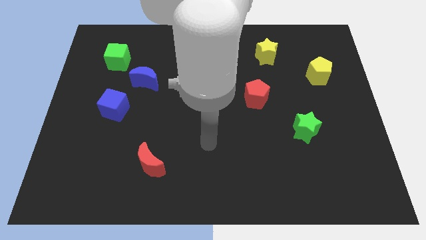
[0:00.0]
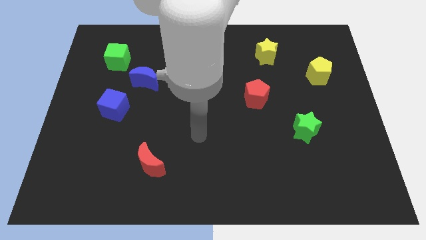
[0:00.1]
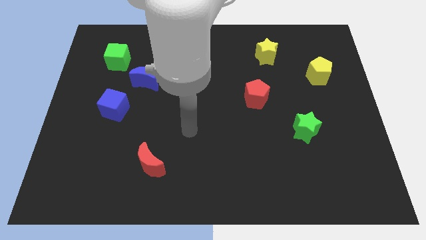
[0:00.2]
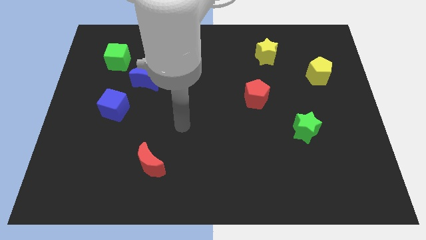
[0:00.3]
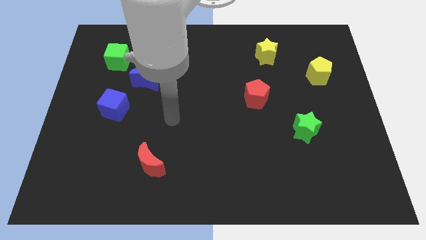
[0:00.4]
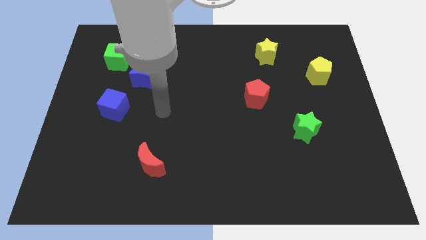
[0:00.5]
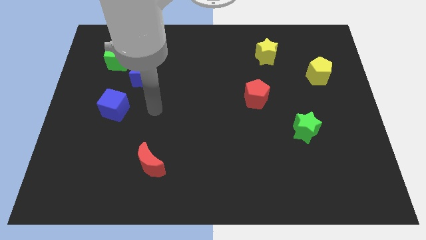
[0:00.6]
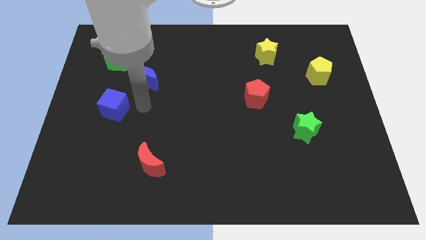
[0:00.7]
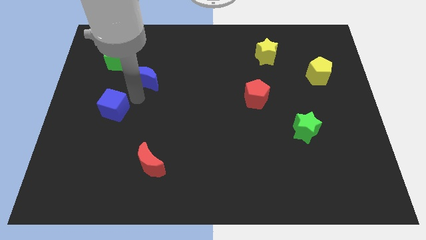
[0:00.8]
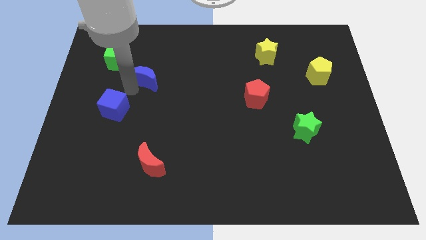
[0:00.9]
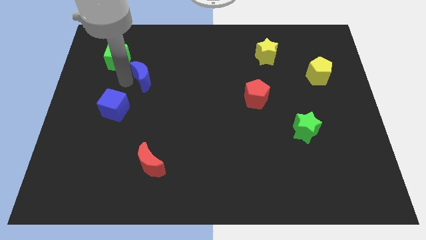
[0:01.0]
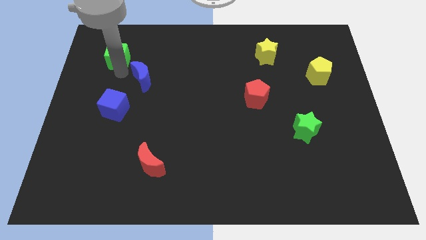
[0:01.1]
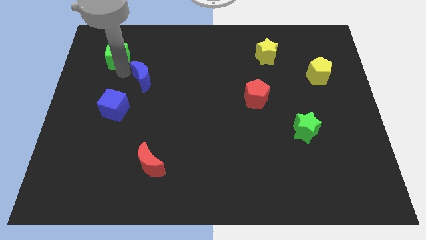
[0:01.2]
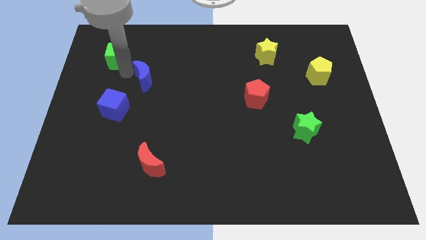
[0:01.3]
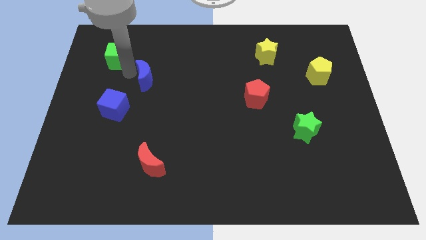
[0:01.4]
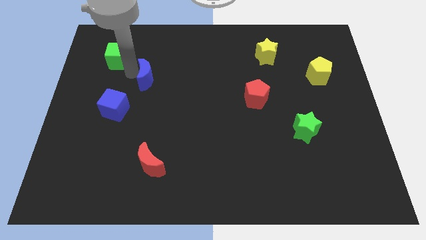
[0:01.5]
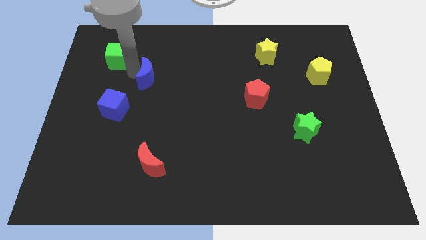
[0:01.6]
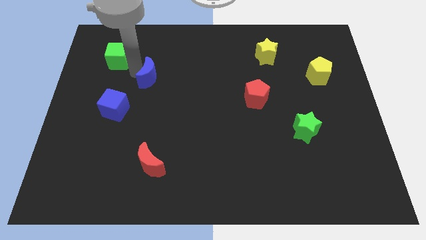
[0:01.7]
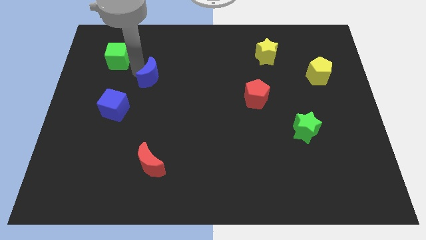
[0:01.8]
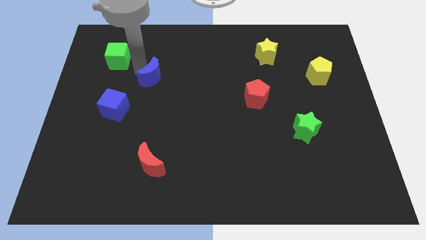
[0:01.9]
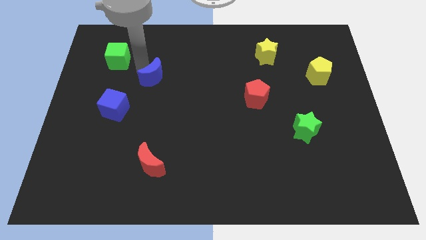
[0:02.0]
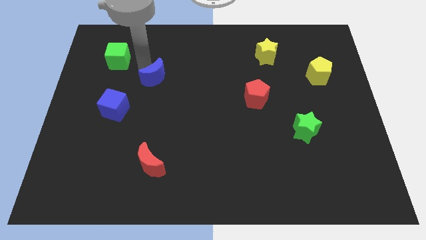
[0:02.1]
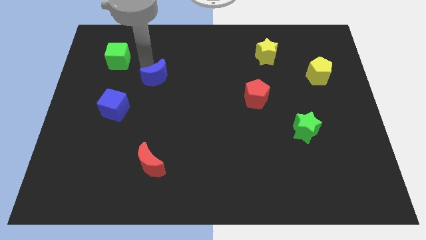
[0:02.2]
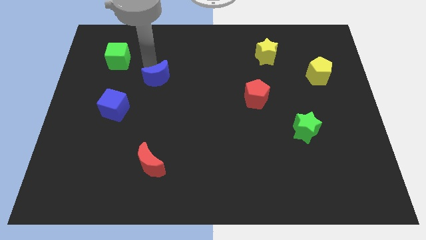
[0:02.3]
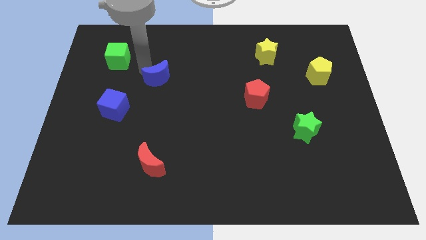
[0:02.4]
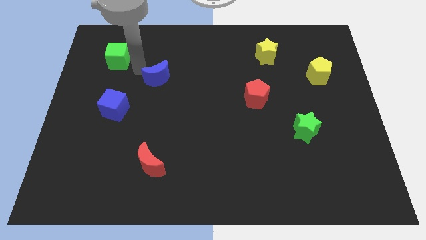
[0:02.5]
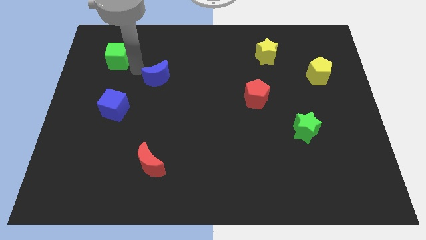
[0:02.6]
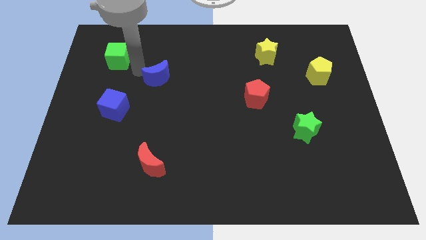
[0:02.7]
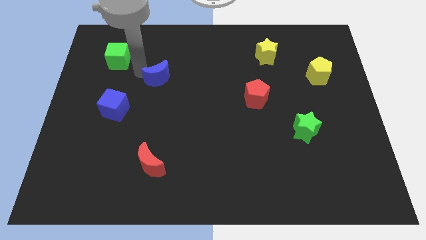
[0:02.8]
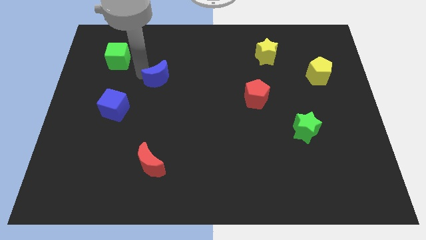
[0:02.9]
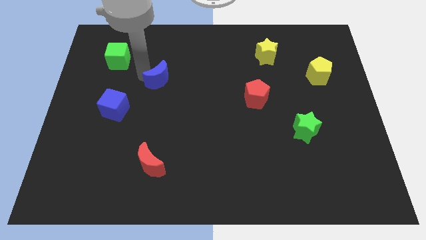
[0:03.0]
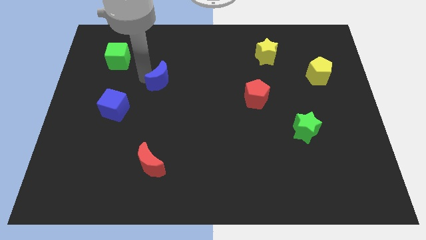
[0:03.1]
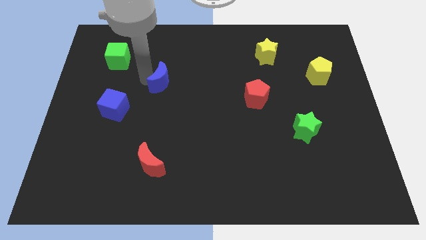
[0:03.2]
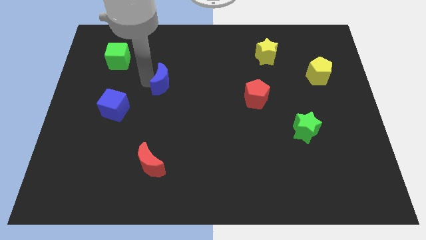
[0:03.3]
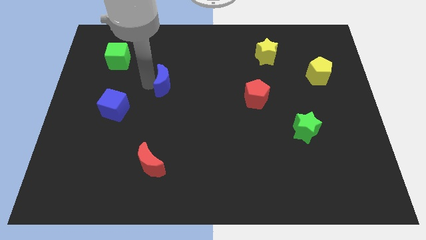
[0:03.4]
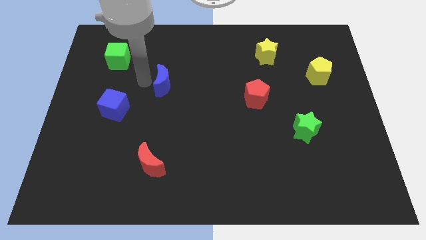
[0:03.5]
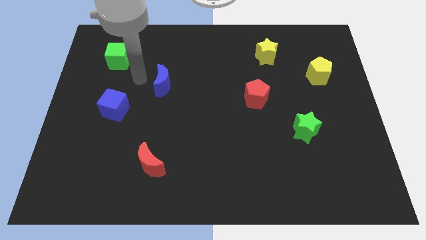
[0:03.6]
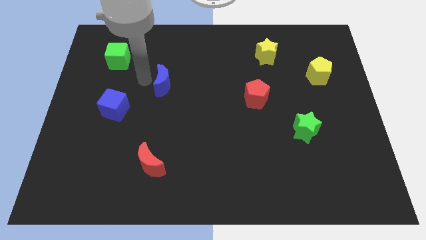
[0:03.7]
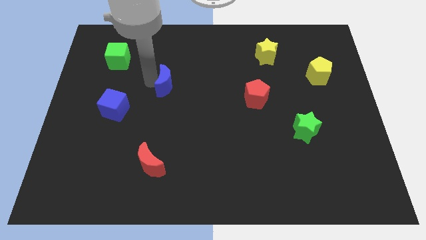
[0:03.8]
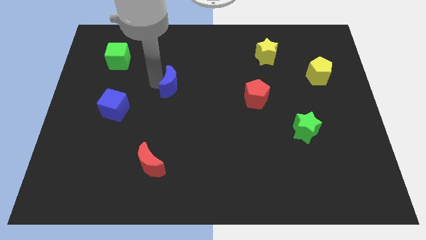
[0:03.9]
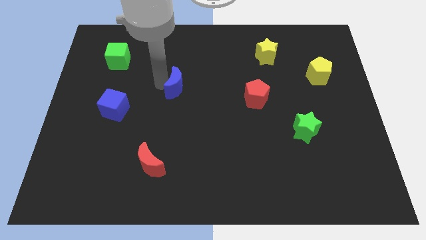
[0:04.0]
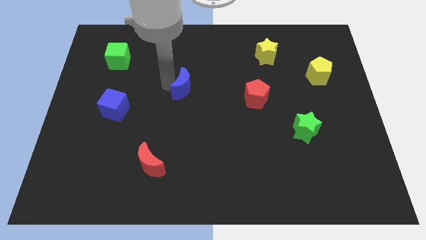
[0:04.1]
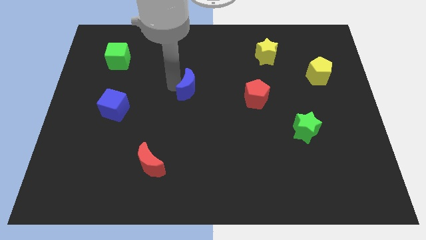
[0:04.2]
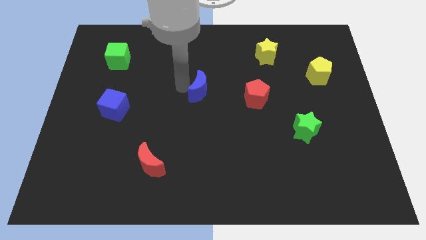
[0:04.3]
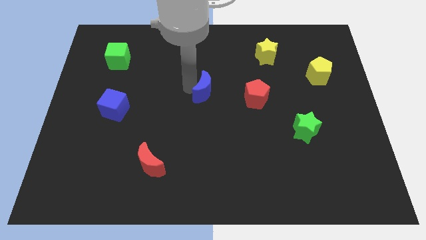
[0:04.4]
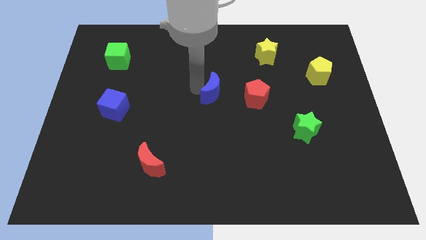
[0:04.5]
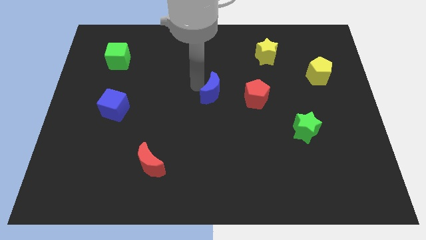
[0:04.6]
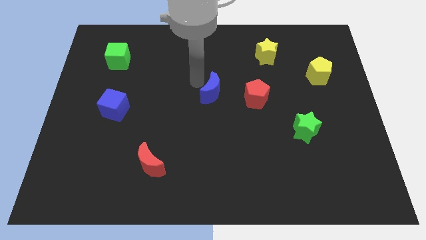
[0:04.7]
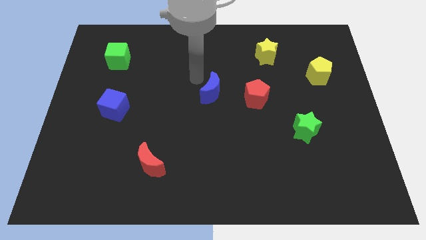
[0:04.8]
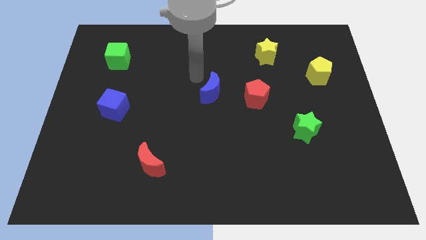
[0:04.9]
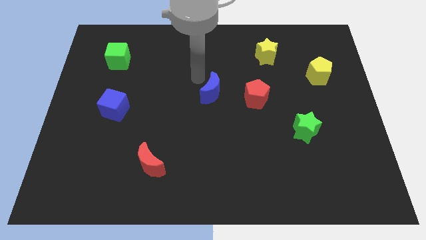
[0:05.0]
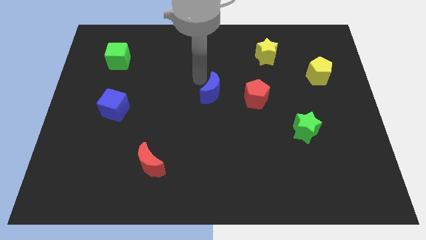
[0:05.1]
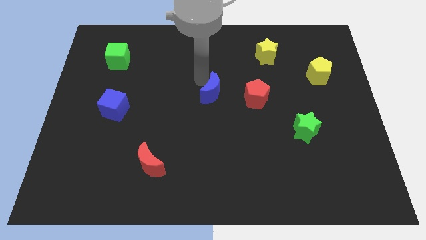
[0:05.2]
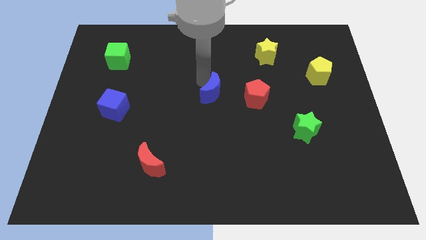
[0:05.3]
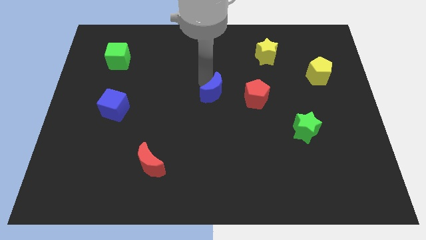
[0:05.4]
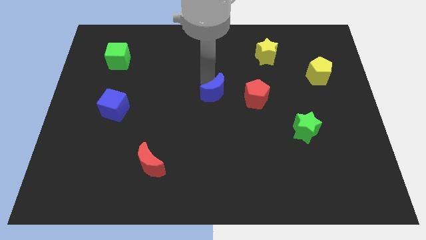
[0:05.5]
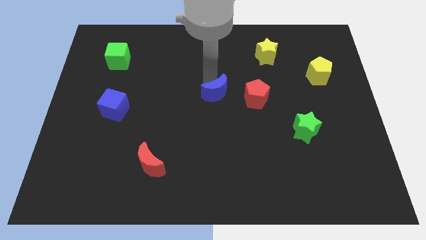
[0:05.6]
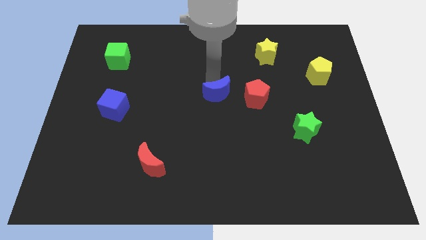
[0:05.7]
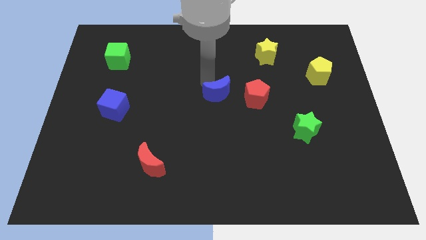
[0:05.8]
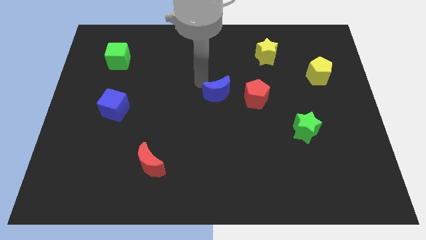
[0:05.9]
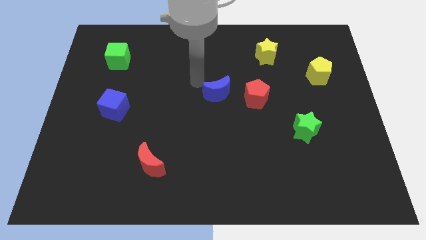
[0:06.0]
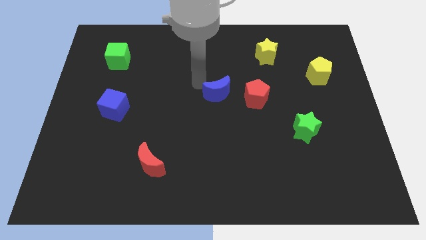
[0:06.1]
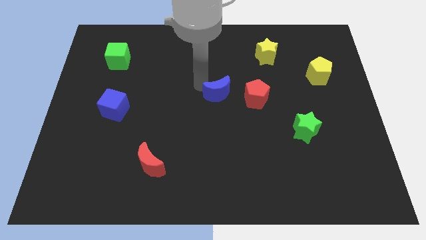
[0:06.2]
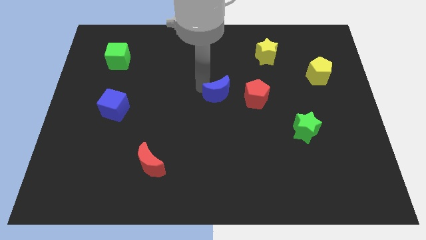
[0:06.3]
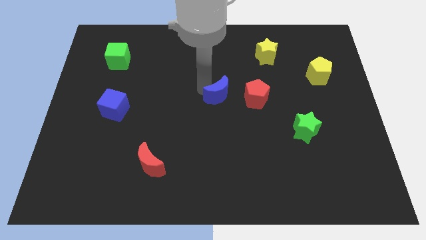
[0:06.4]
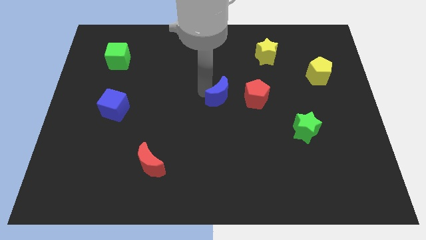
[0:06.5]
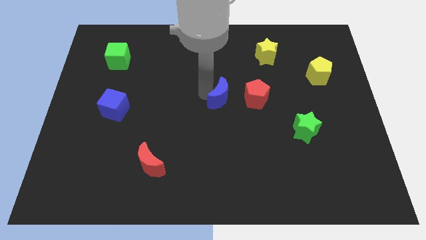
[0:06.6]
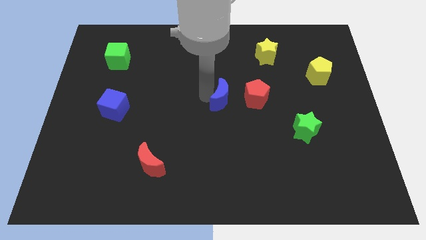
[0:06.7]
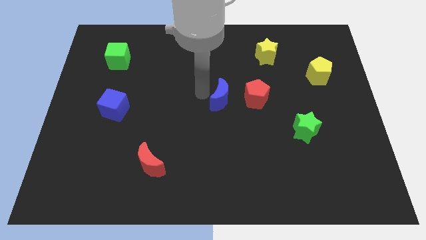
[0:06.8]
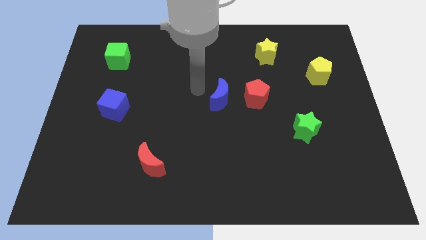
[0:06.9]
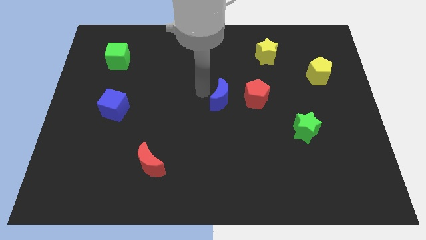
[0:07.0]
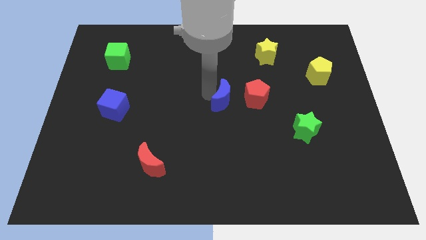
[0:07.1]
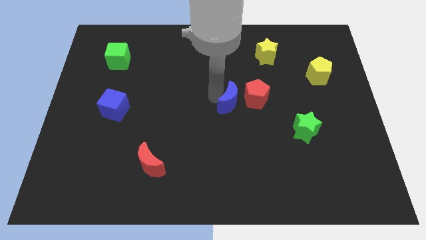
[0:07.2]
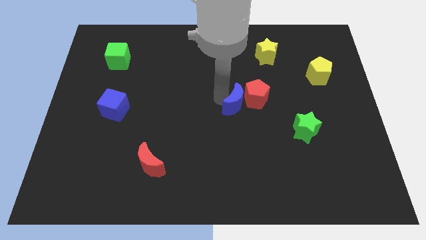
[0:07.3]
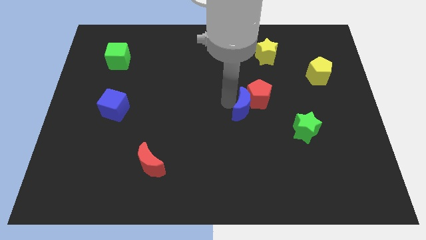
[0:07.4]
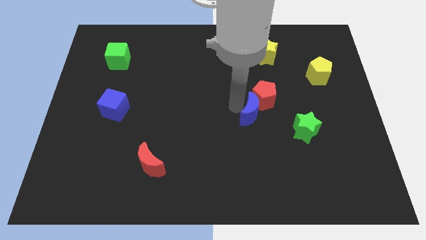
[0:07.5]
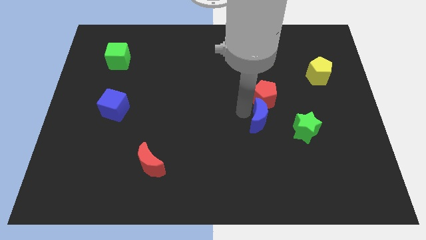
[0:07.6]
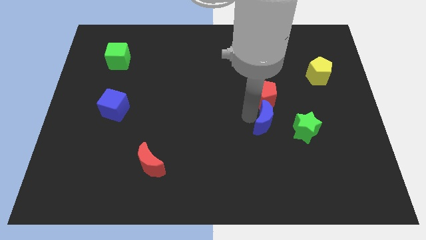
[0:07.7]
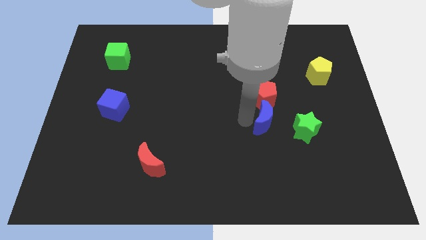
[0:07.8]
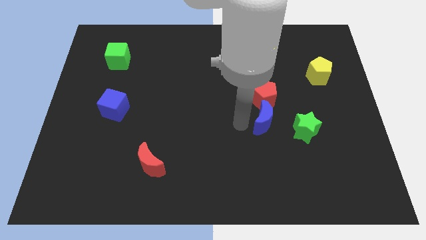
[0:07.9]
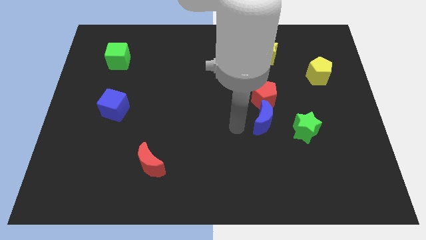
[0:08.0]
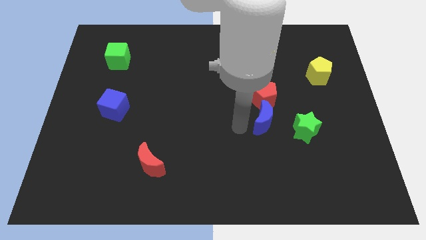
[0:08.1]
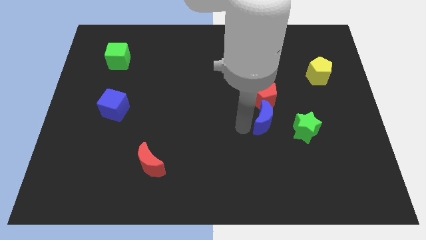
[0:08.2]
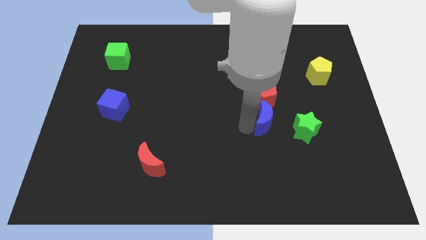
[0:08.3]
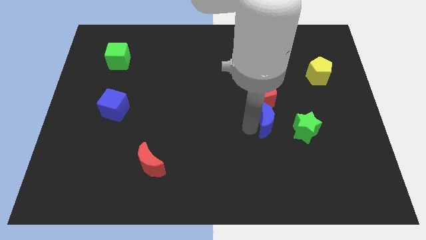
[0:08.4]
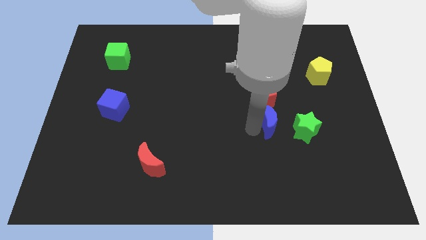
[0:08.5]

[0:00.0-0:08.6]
slide the blue moon to the bottom right of the red pentagon
